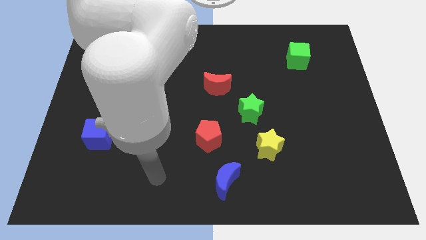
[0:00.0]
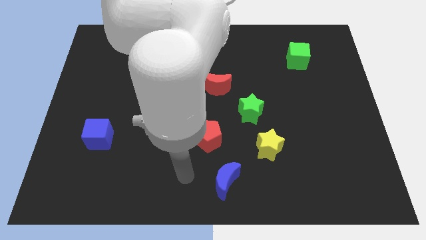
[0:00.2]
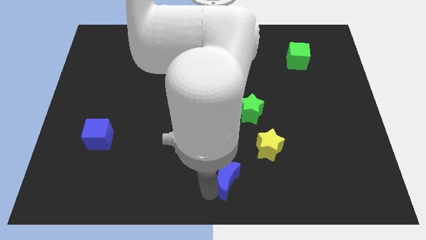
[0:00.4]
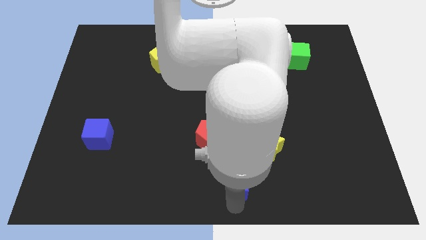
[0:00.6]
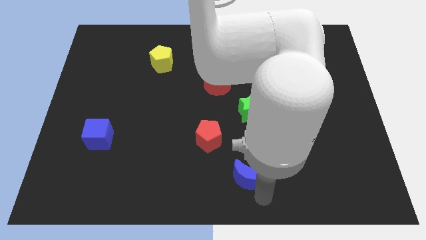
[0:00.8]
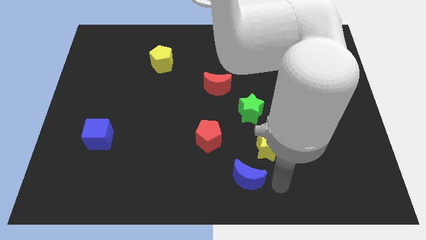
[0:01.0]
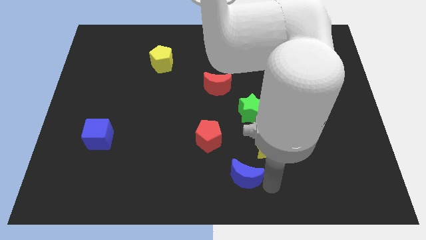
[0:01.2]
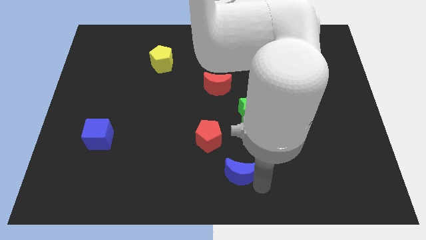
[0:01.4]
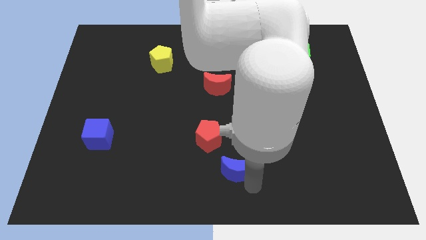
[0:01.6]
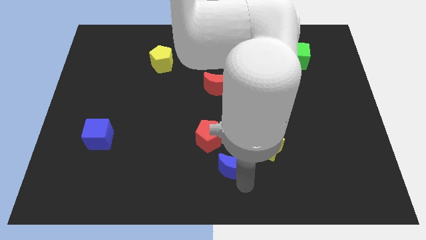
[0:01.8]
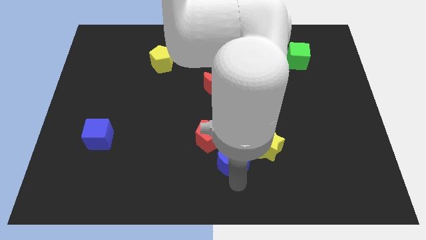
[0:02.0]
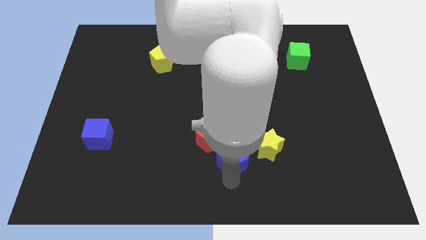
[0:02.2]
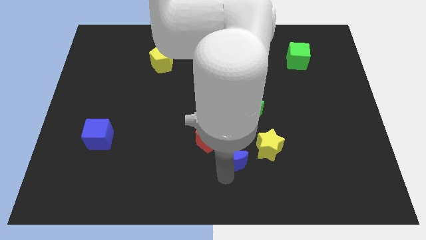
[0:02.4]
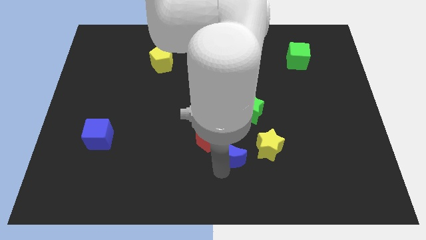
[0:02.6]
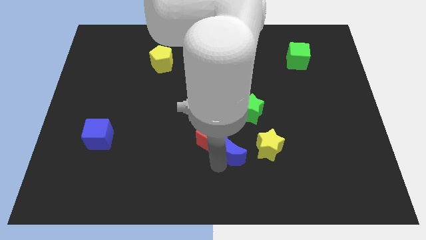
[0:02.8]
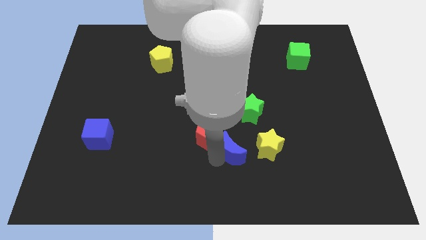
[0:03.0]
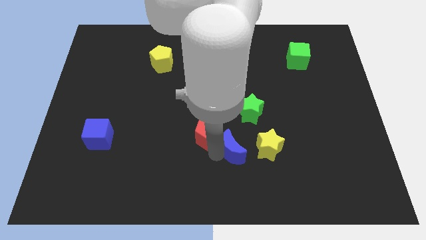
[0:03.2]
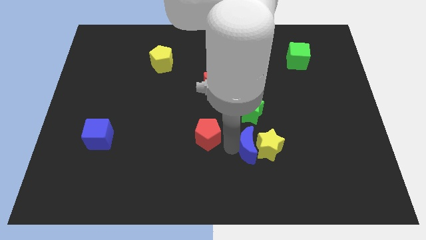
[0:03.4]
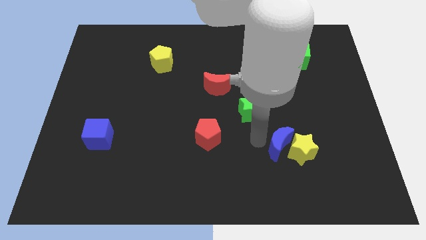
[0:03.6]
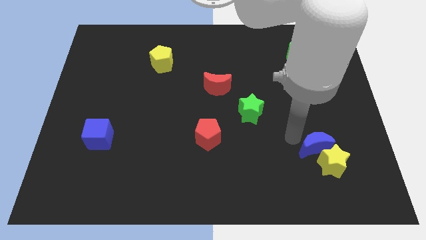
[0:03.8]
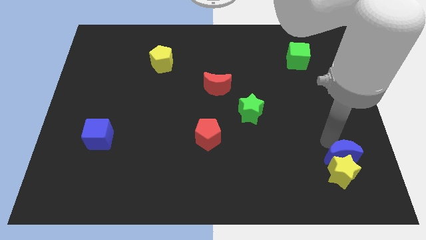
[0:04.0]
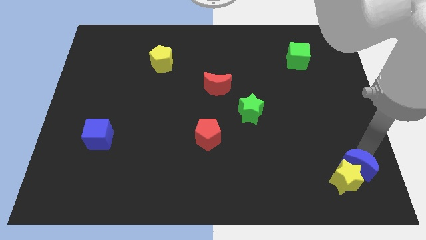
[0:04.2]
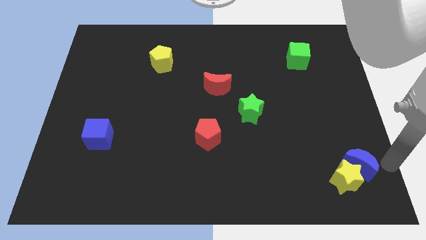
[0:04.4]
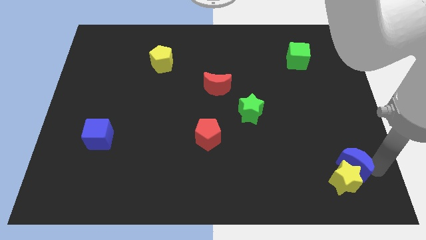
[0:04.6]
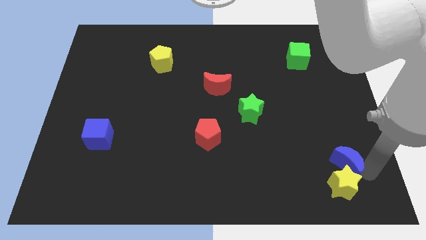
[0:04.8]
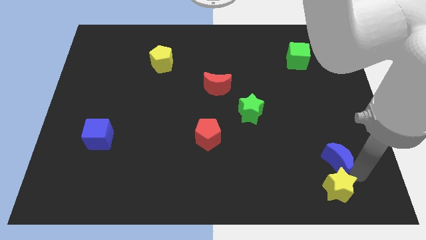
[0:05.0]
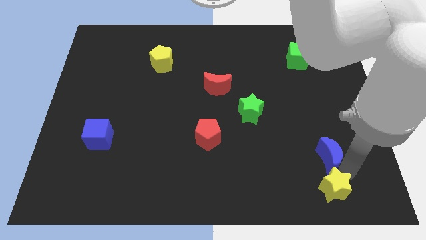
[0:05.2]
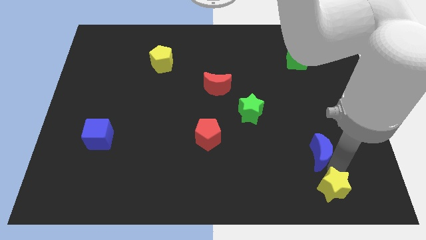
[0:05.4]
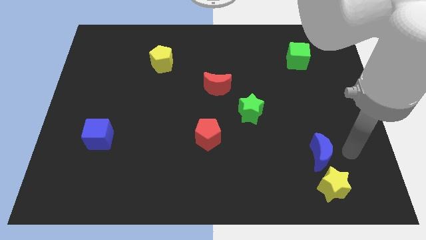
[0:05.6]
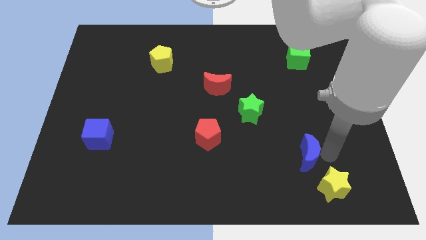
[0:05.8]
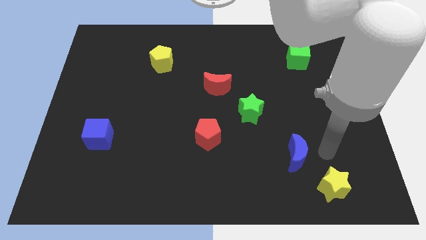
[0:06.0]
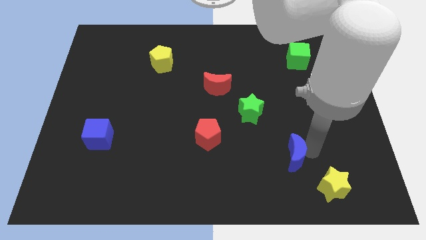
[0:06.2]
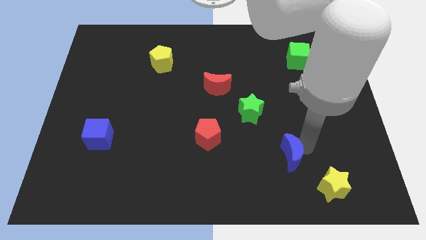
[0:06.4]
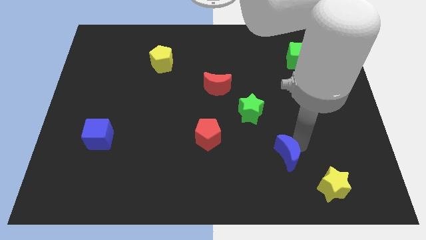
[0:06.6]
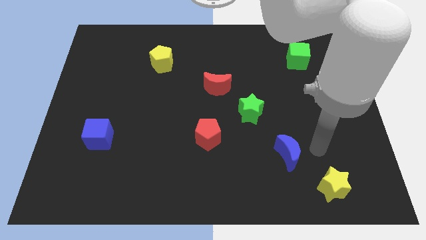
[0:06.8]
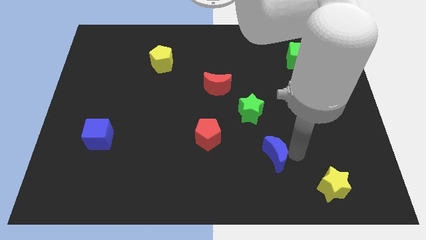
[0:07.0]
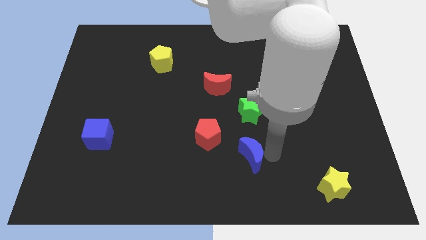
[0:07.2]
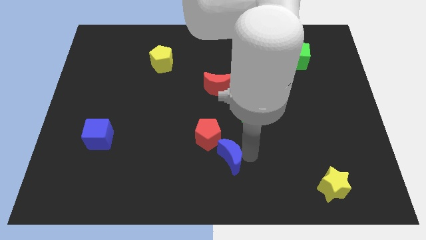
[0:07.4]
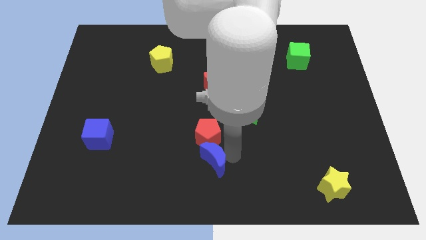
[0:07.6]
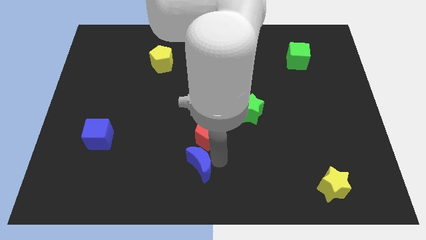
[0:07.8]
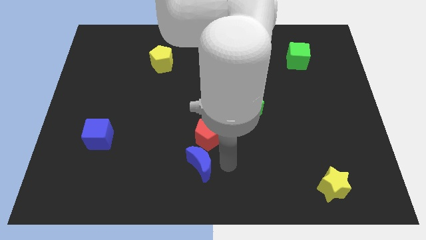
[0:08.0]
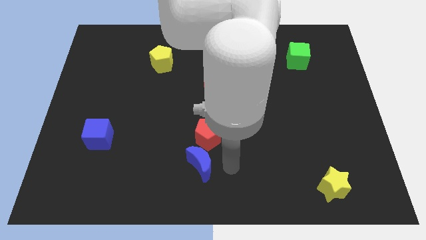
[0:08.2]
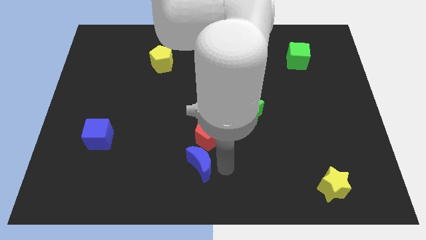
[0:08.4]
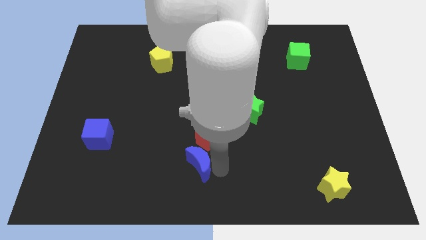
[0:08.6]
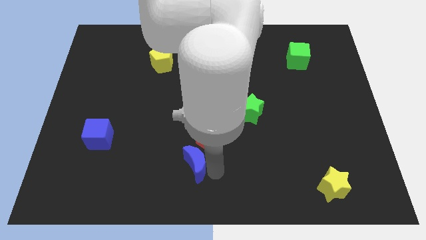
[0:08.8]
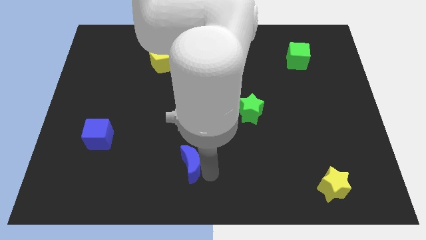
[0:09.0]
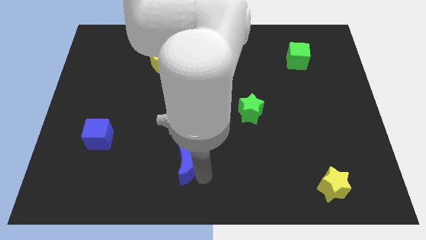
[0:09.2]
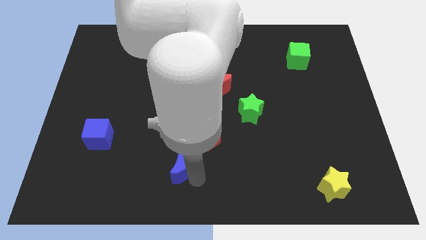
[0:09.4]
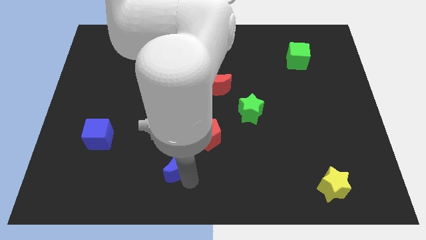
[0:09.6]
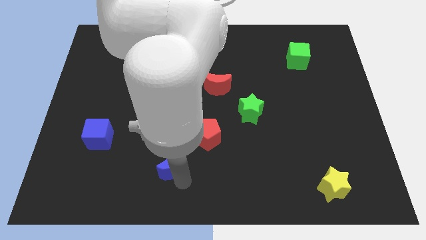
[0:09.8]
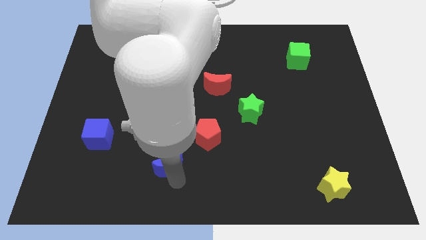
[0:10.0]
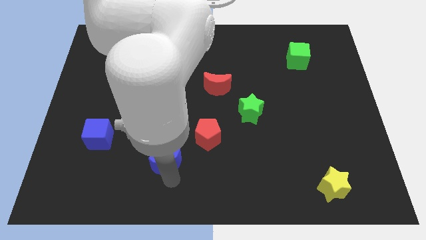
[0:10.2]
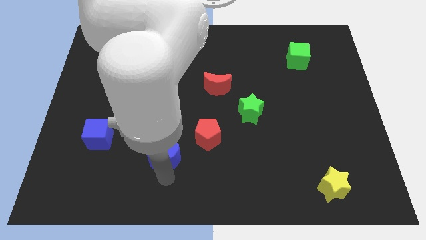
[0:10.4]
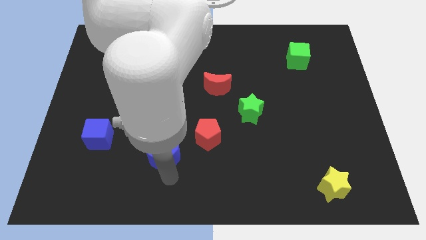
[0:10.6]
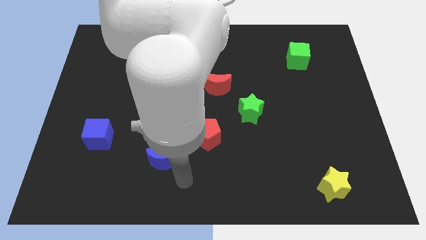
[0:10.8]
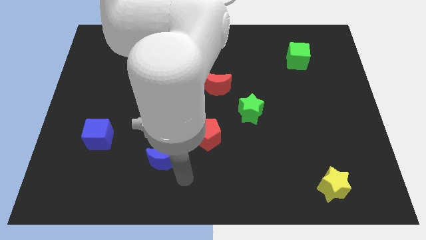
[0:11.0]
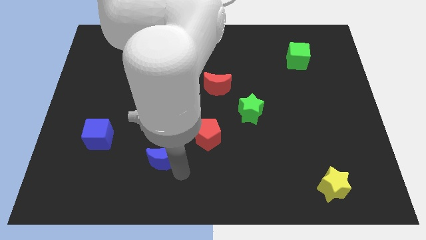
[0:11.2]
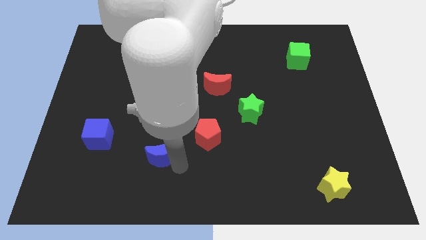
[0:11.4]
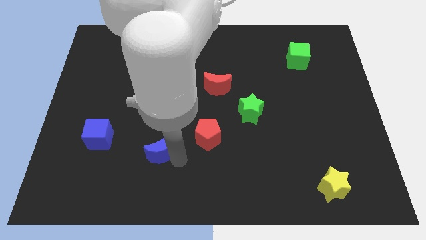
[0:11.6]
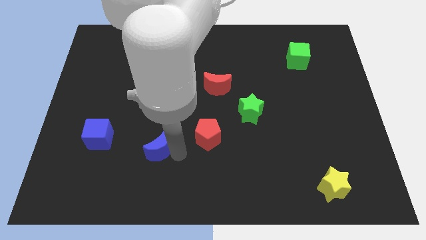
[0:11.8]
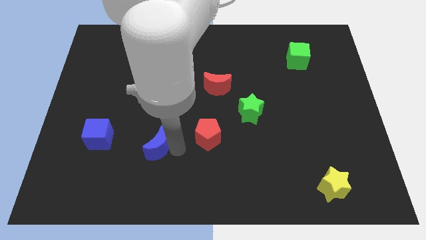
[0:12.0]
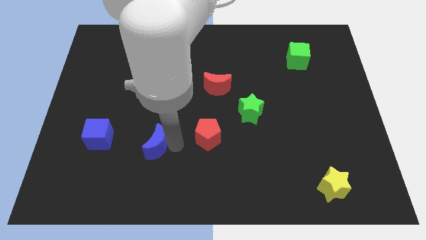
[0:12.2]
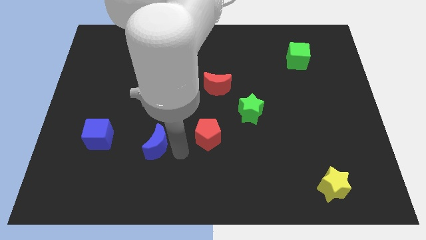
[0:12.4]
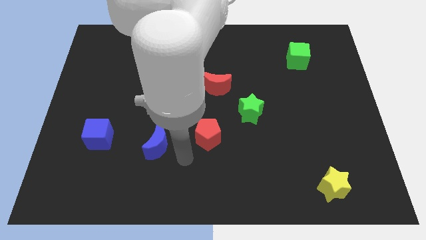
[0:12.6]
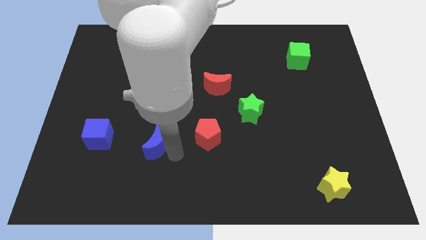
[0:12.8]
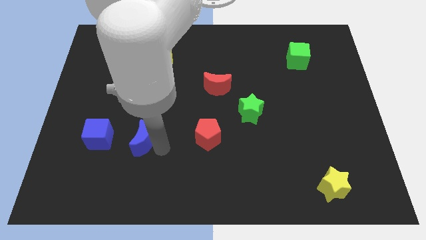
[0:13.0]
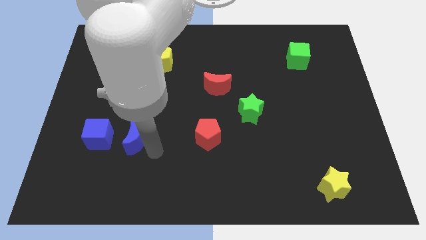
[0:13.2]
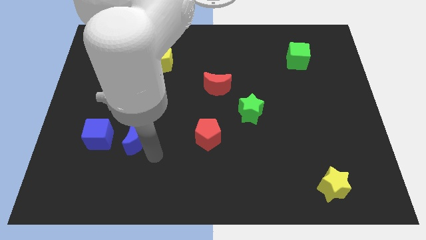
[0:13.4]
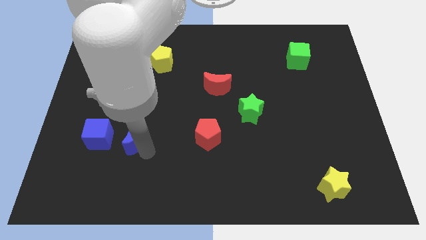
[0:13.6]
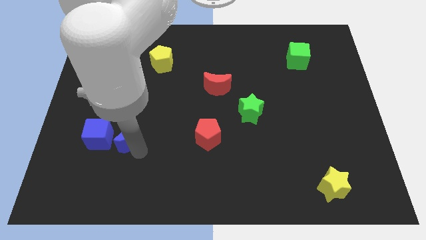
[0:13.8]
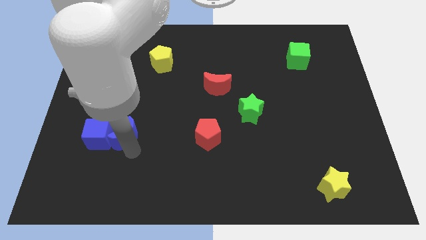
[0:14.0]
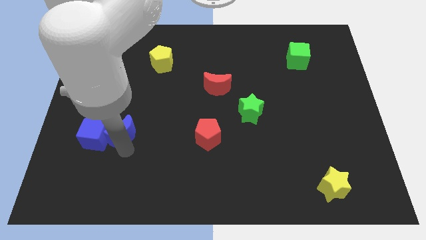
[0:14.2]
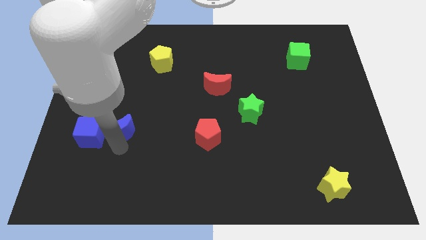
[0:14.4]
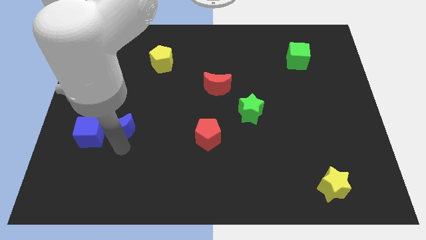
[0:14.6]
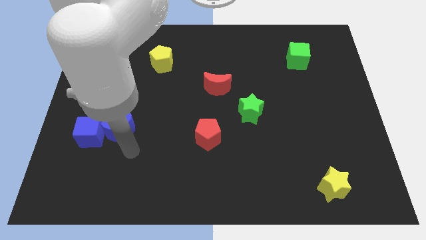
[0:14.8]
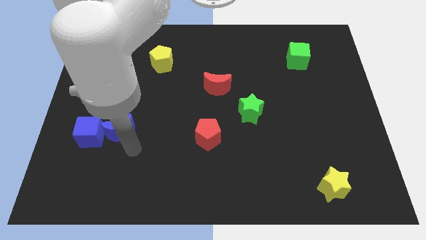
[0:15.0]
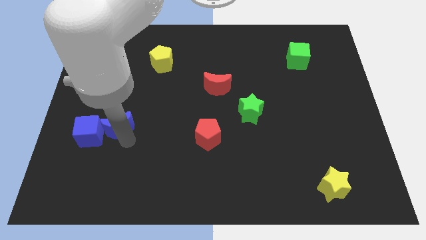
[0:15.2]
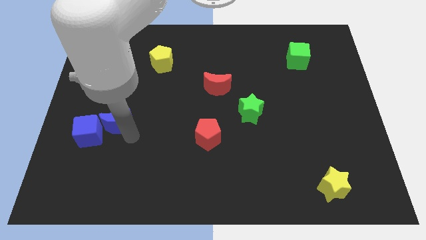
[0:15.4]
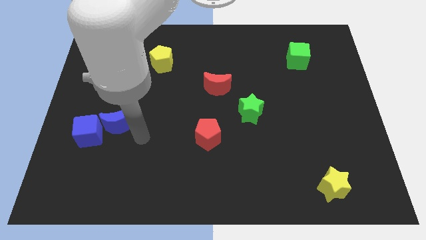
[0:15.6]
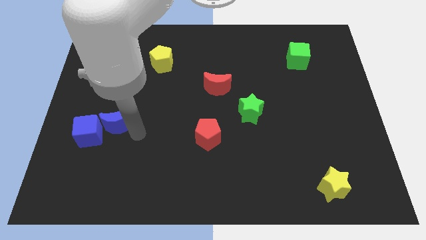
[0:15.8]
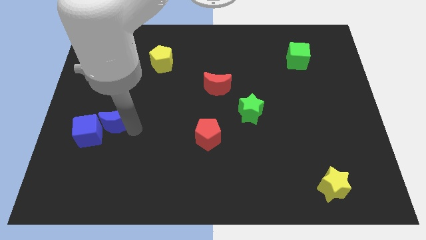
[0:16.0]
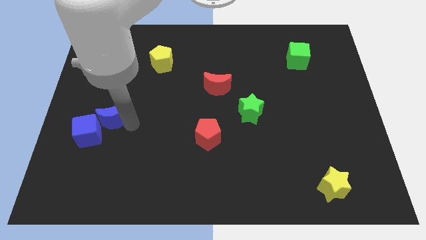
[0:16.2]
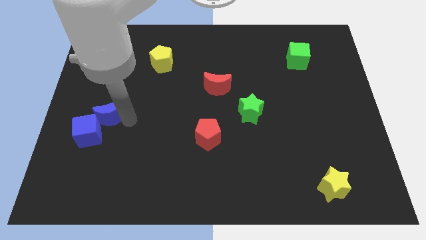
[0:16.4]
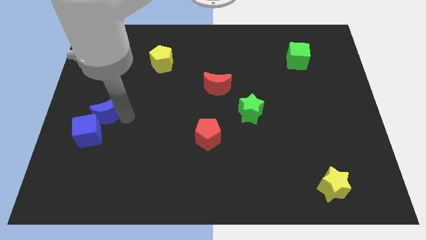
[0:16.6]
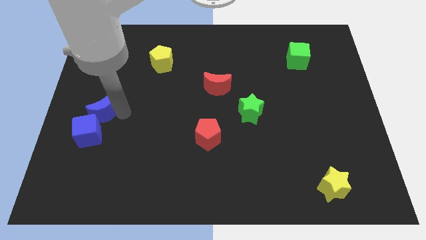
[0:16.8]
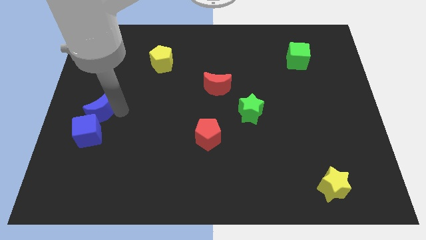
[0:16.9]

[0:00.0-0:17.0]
slide the blue moon to the center left
